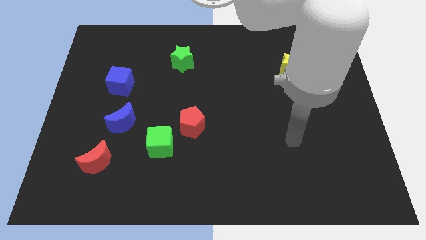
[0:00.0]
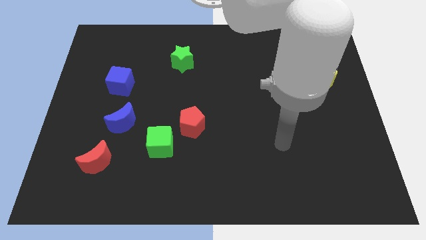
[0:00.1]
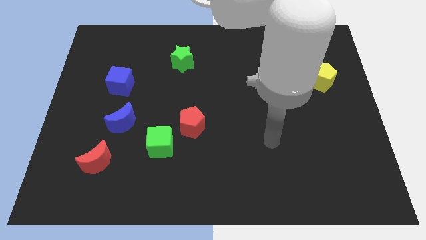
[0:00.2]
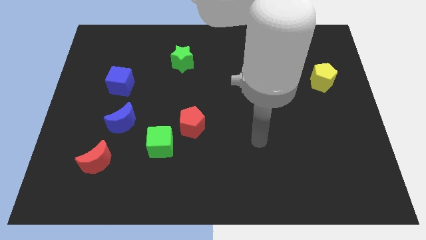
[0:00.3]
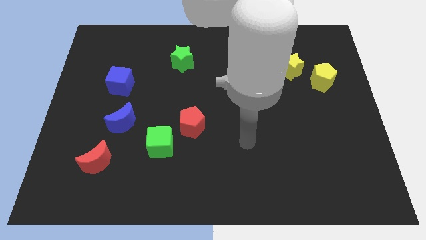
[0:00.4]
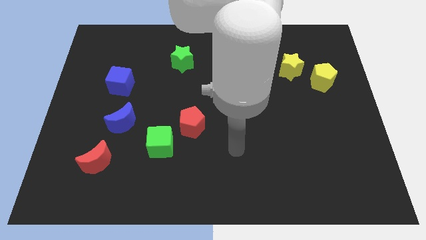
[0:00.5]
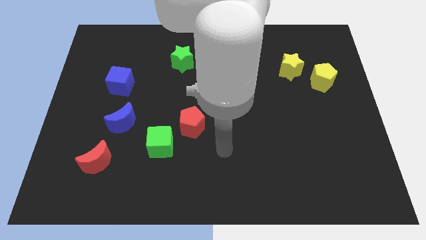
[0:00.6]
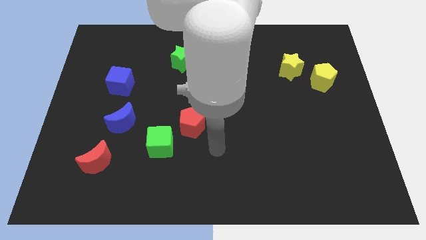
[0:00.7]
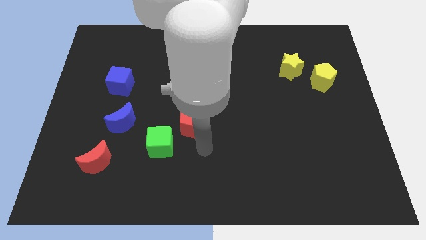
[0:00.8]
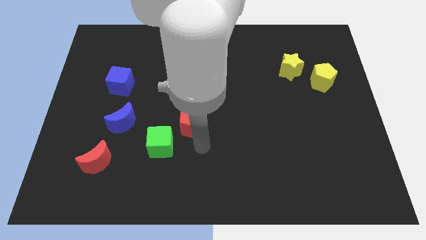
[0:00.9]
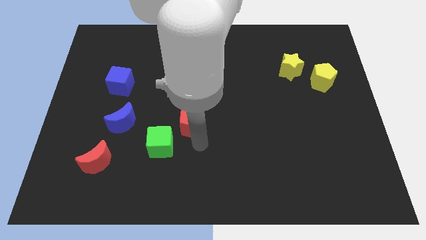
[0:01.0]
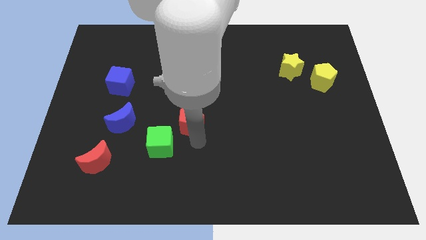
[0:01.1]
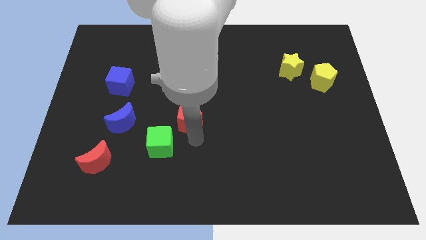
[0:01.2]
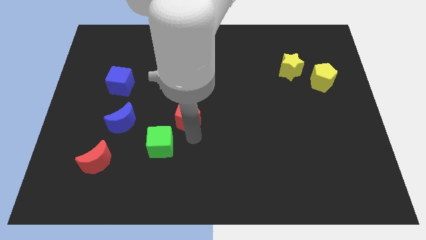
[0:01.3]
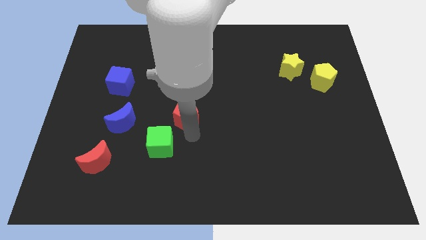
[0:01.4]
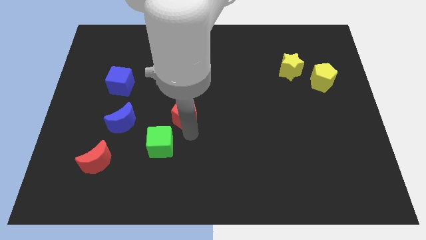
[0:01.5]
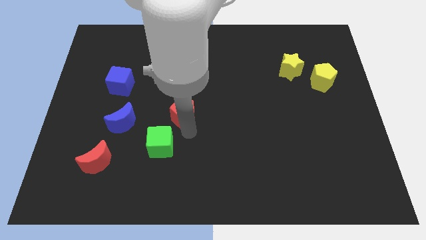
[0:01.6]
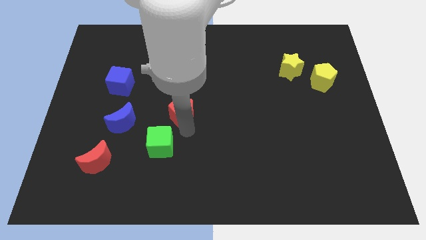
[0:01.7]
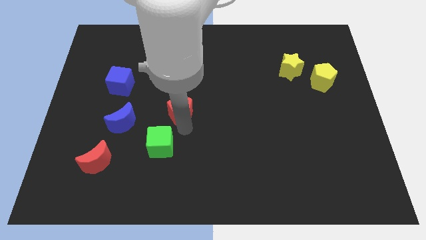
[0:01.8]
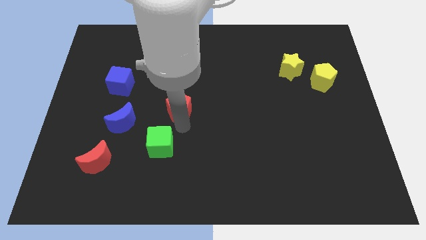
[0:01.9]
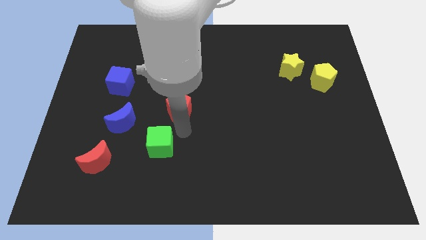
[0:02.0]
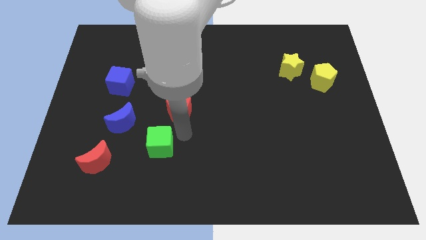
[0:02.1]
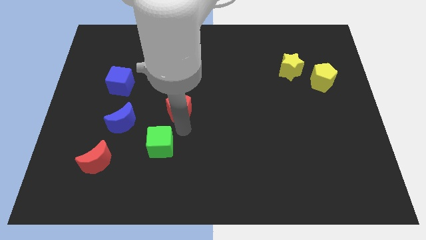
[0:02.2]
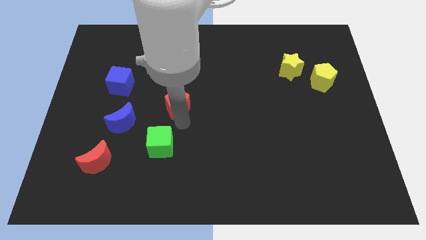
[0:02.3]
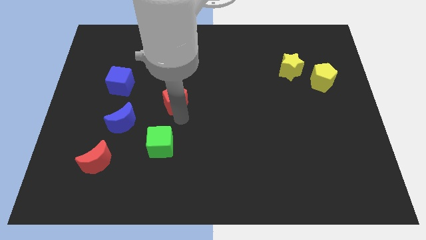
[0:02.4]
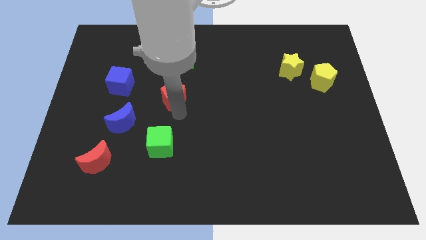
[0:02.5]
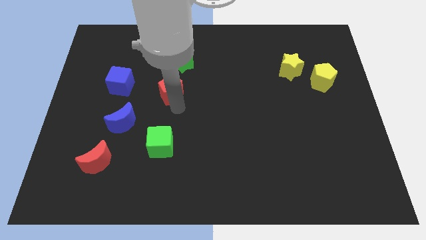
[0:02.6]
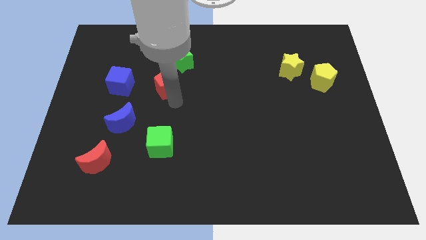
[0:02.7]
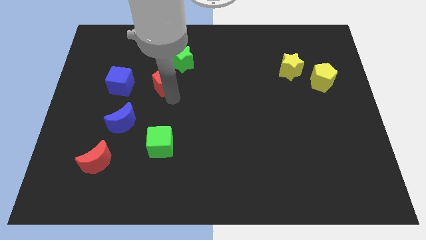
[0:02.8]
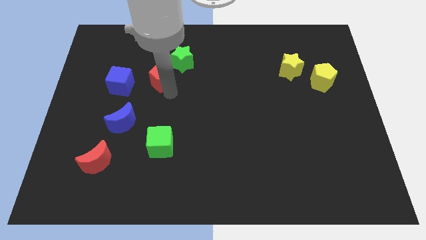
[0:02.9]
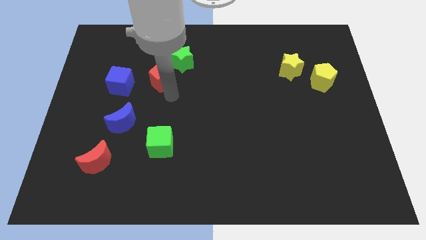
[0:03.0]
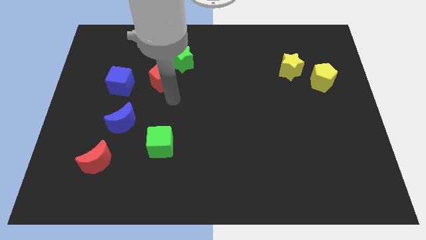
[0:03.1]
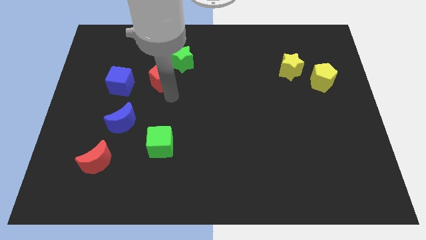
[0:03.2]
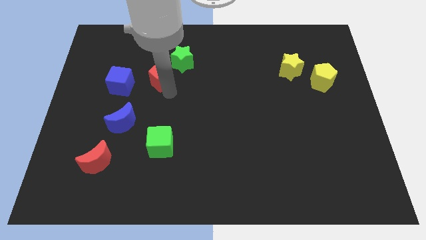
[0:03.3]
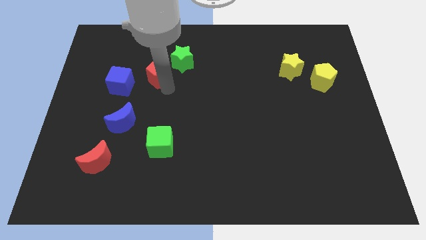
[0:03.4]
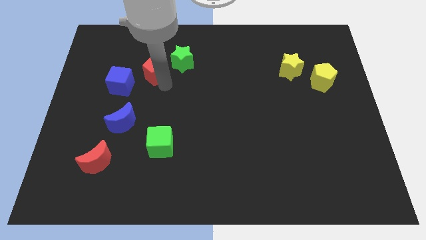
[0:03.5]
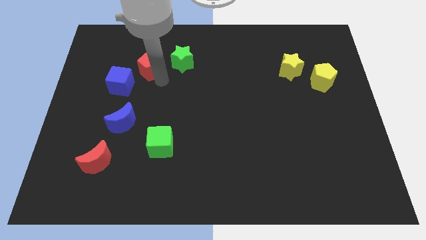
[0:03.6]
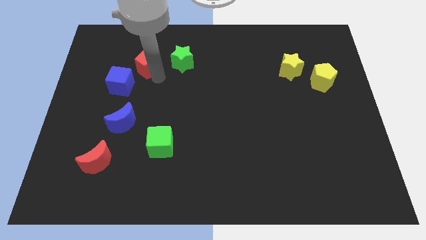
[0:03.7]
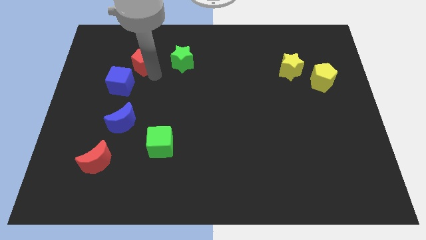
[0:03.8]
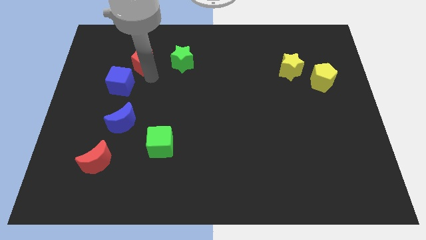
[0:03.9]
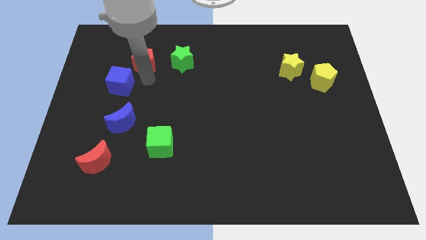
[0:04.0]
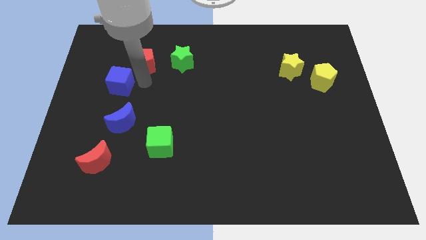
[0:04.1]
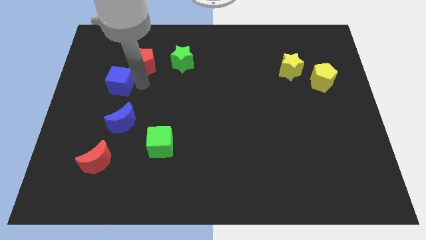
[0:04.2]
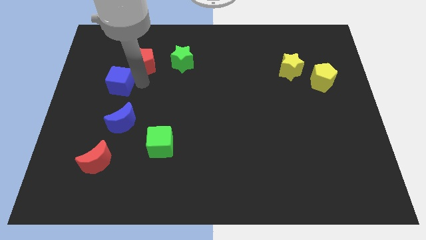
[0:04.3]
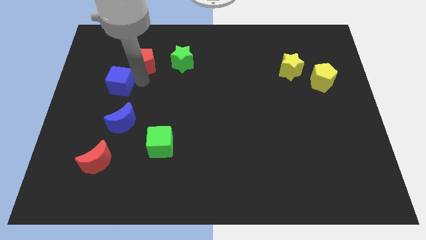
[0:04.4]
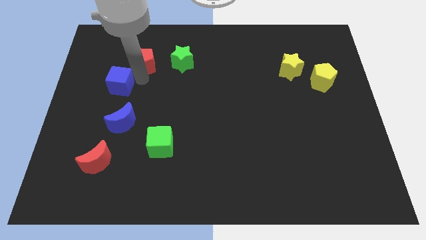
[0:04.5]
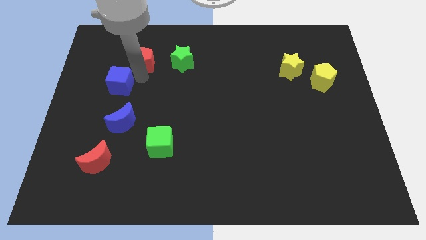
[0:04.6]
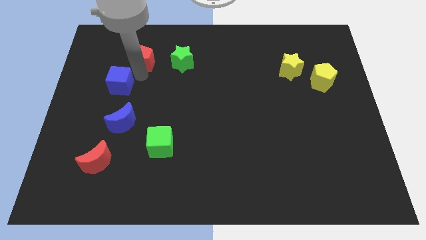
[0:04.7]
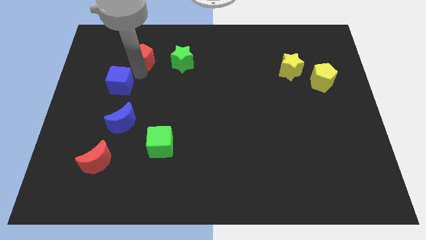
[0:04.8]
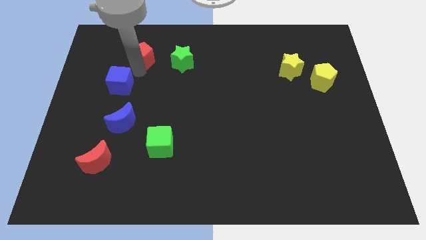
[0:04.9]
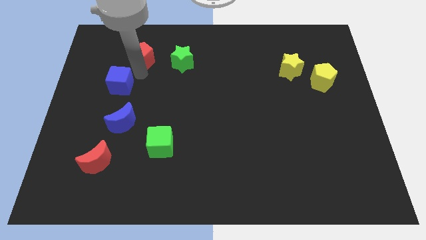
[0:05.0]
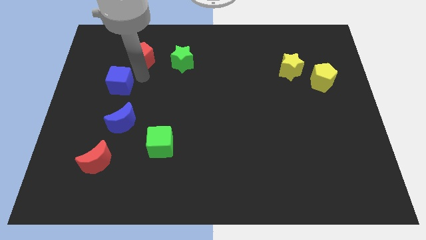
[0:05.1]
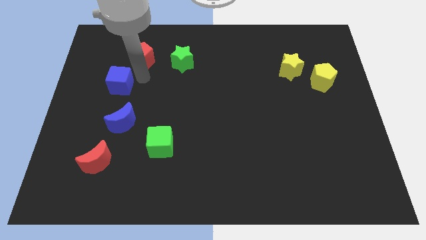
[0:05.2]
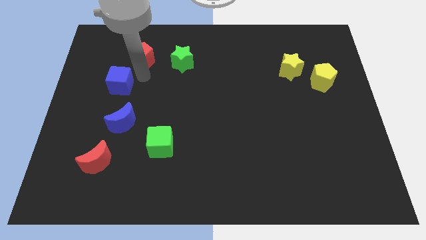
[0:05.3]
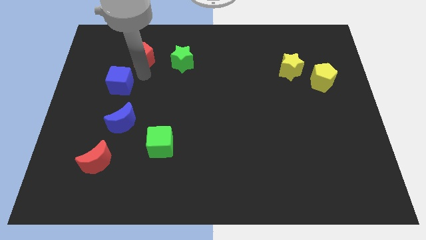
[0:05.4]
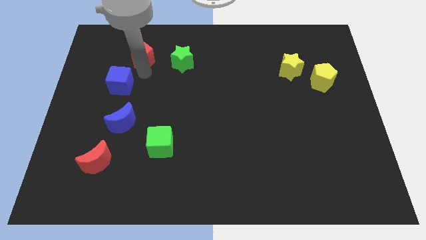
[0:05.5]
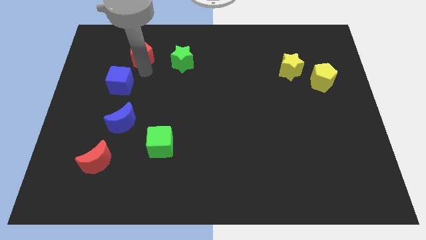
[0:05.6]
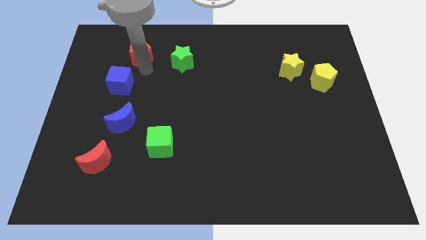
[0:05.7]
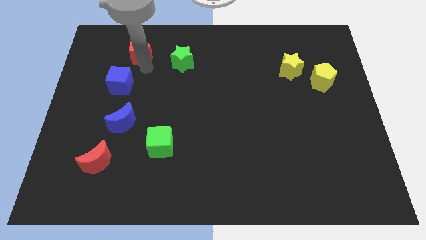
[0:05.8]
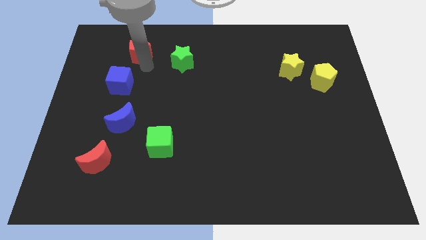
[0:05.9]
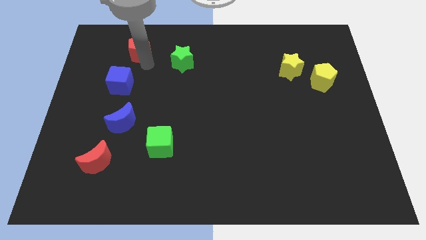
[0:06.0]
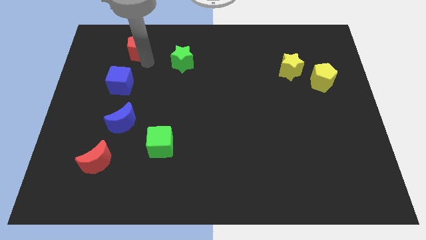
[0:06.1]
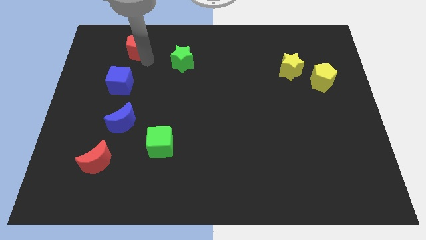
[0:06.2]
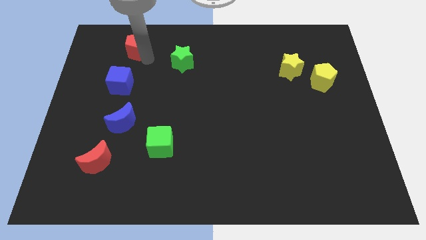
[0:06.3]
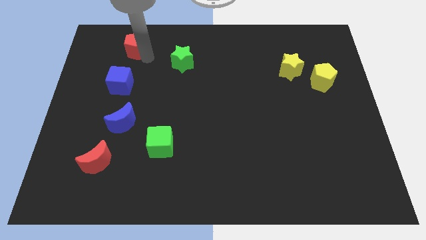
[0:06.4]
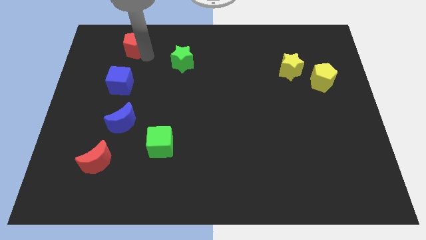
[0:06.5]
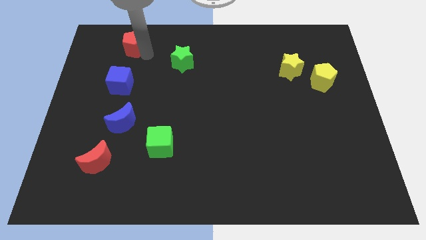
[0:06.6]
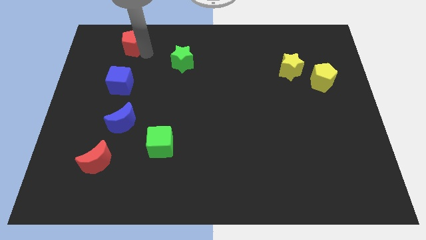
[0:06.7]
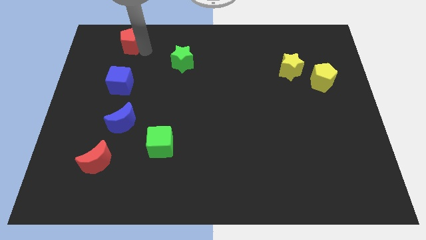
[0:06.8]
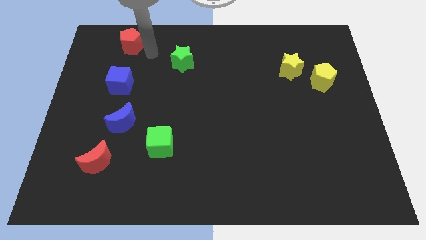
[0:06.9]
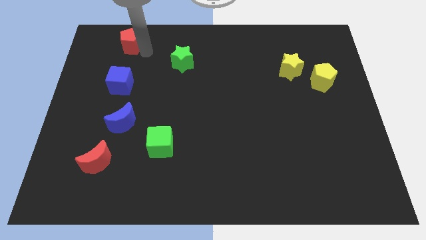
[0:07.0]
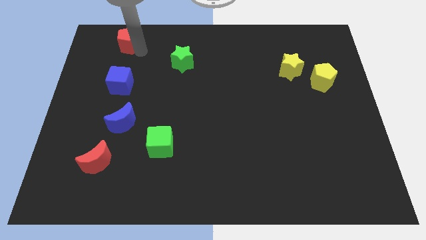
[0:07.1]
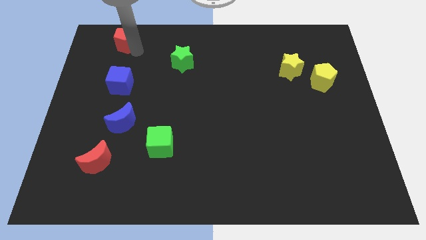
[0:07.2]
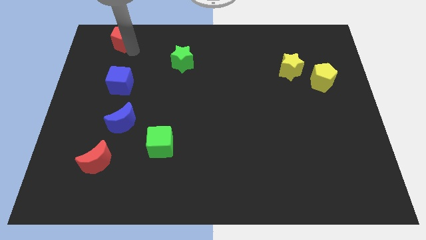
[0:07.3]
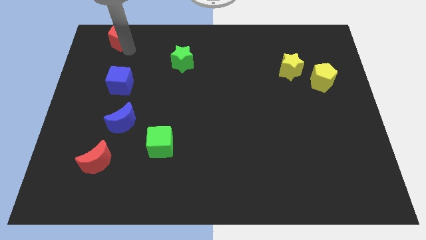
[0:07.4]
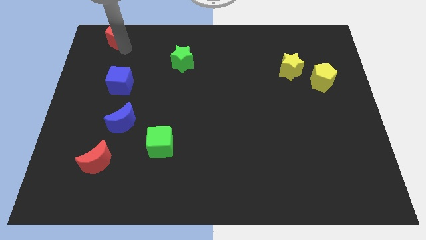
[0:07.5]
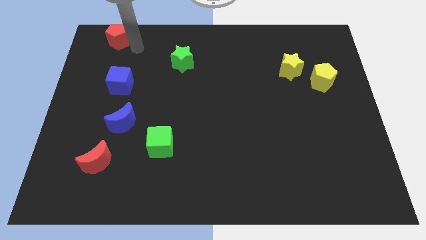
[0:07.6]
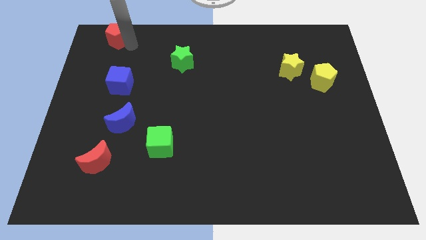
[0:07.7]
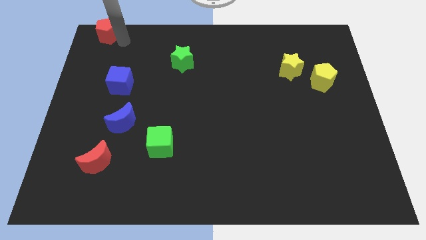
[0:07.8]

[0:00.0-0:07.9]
put the red pentagon to the upper left corner
